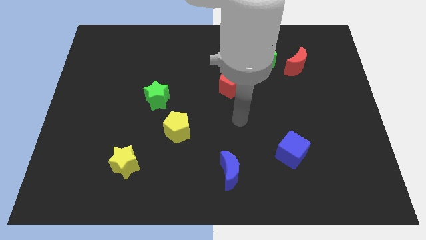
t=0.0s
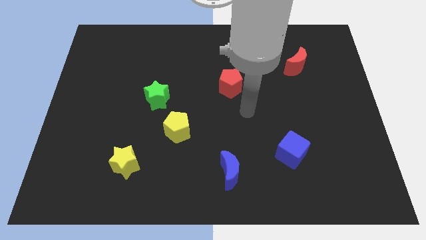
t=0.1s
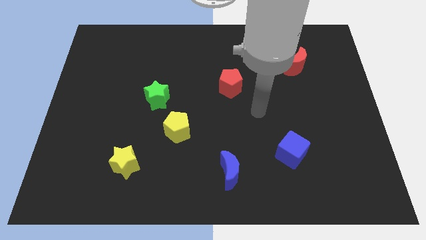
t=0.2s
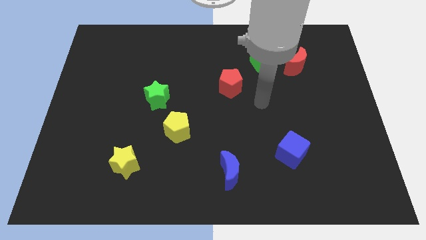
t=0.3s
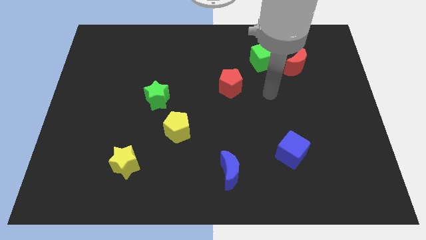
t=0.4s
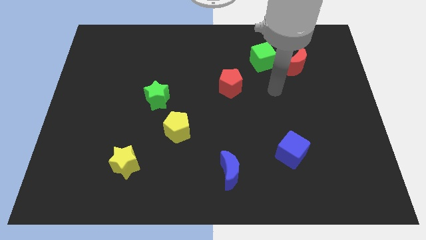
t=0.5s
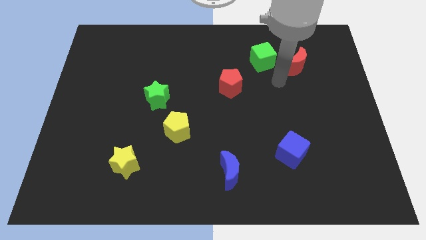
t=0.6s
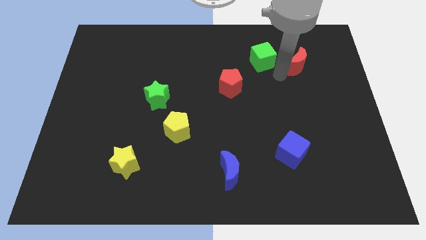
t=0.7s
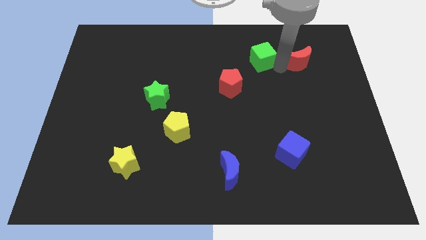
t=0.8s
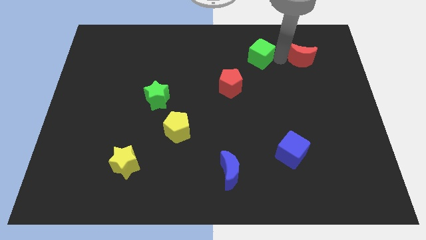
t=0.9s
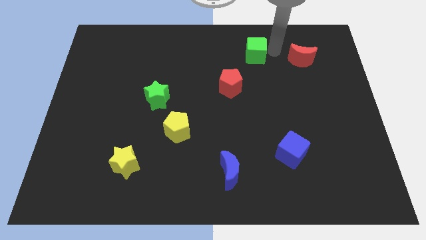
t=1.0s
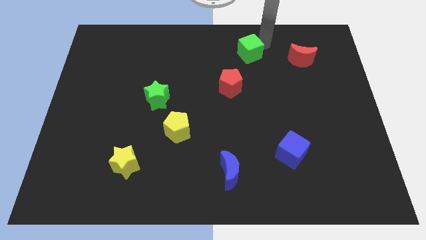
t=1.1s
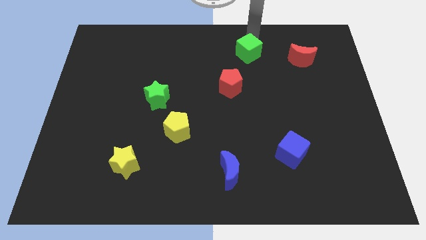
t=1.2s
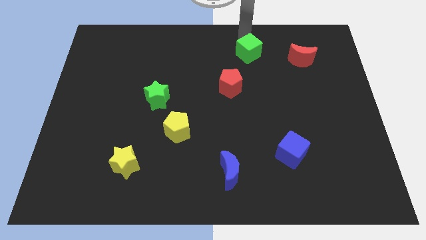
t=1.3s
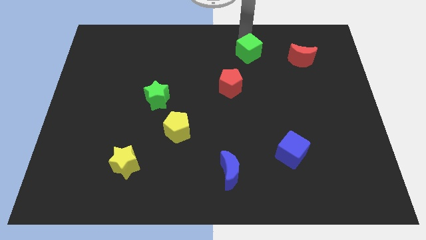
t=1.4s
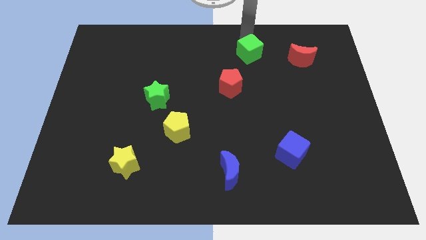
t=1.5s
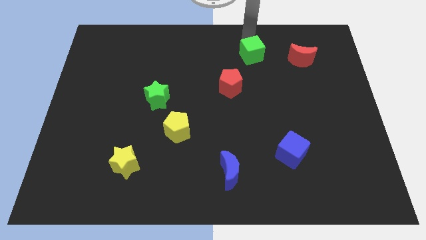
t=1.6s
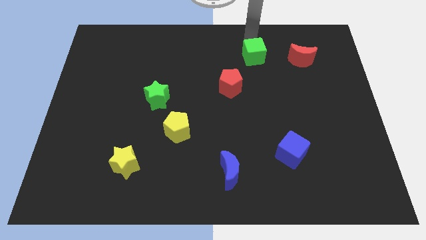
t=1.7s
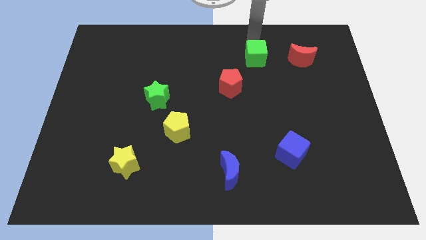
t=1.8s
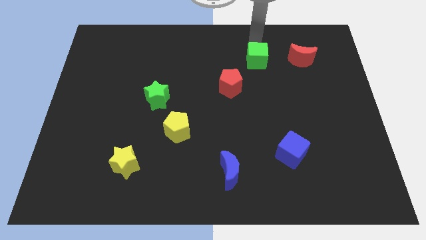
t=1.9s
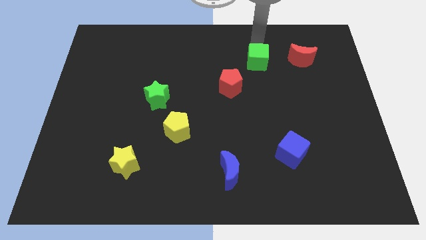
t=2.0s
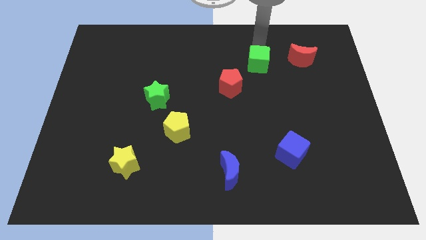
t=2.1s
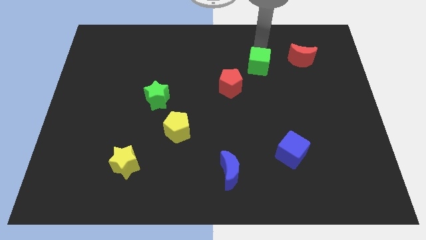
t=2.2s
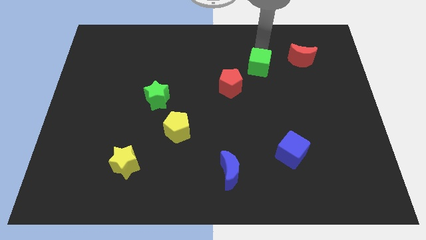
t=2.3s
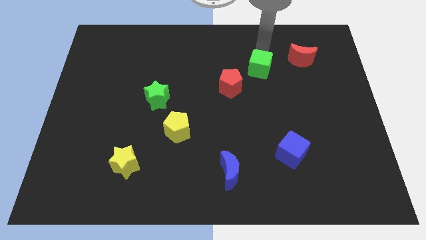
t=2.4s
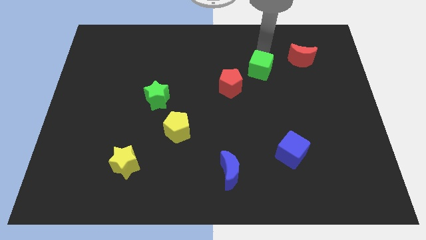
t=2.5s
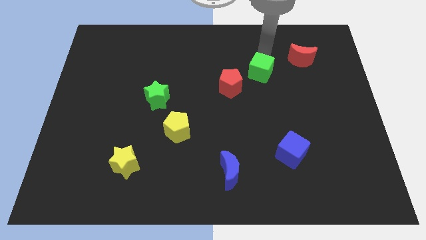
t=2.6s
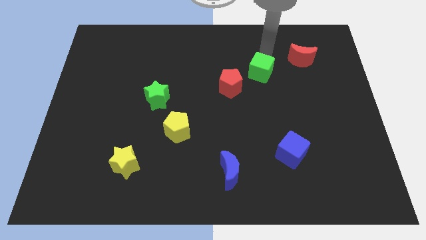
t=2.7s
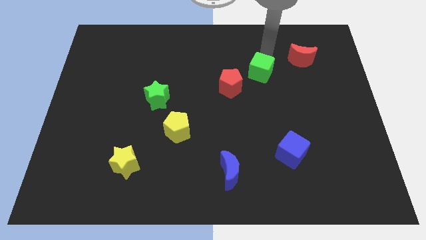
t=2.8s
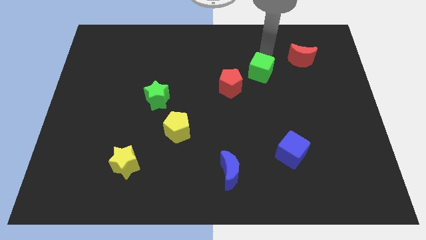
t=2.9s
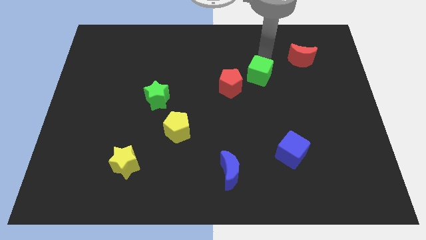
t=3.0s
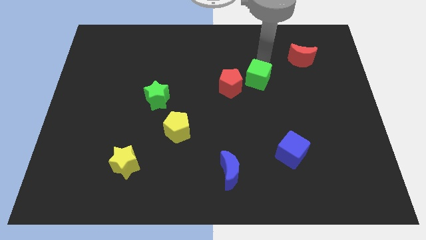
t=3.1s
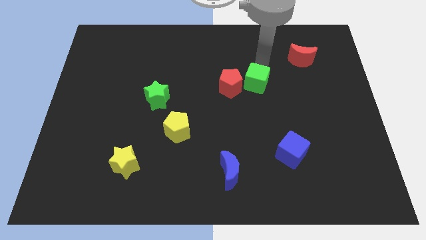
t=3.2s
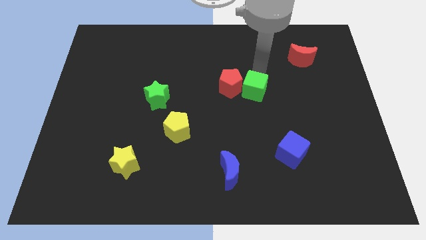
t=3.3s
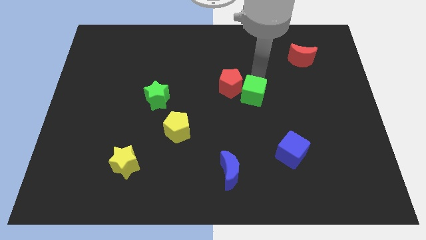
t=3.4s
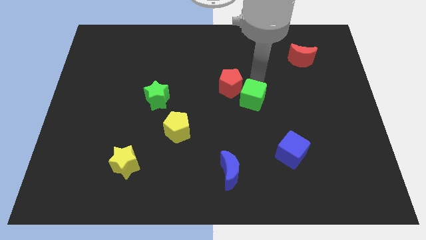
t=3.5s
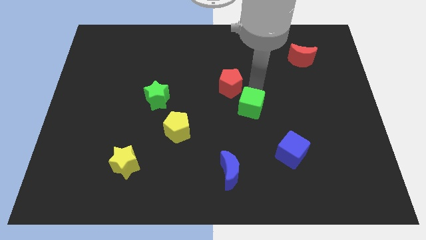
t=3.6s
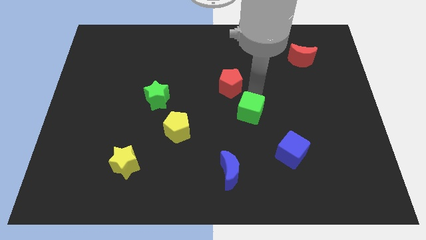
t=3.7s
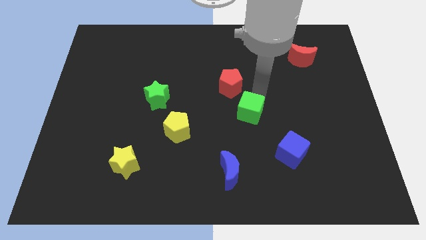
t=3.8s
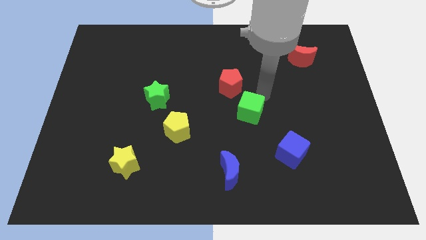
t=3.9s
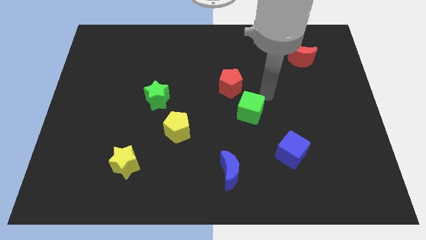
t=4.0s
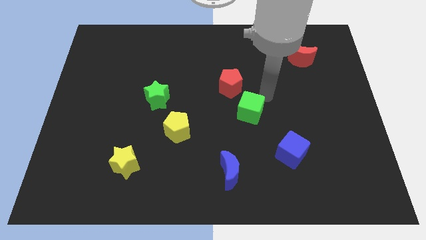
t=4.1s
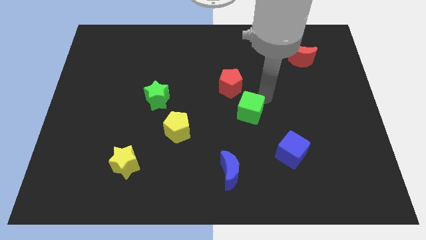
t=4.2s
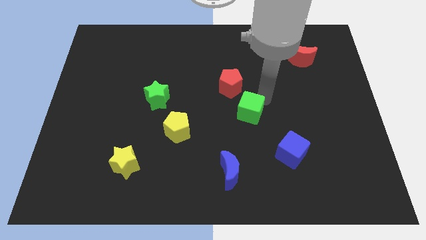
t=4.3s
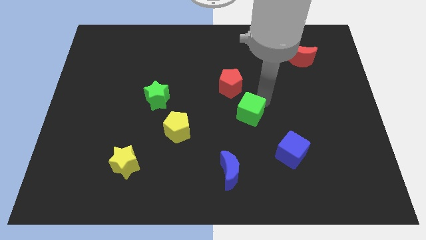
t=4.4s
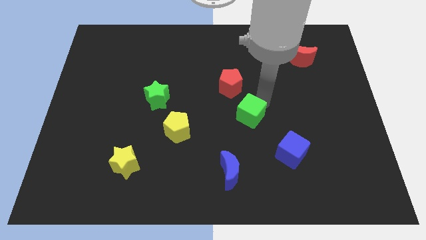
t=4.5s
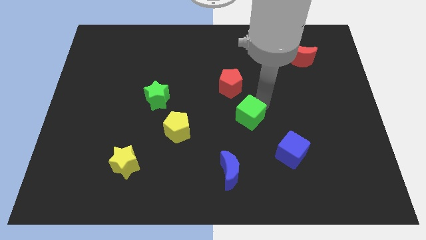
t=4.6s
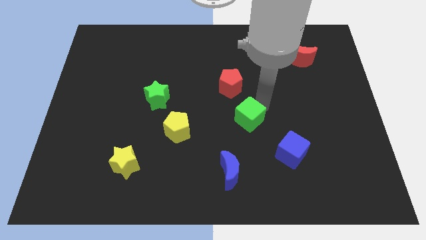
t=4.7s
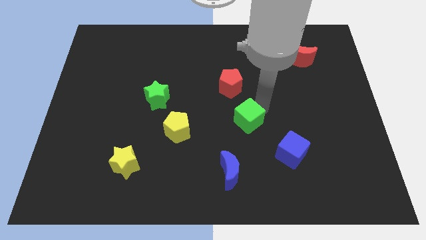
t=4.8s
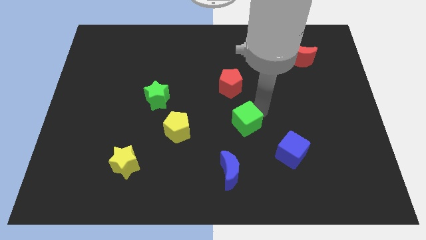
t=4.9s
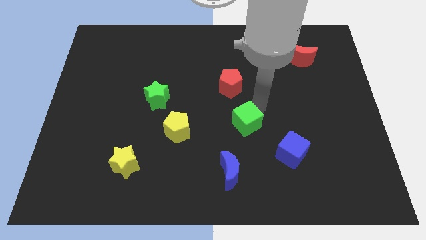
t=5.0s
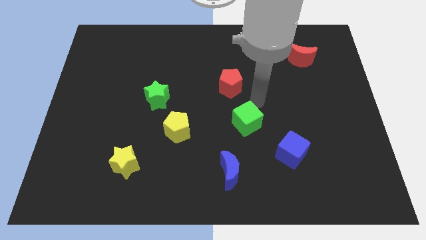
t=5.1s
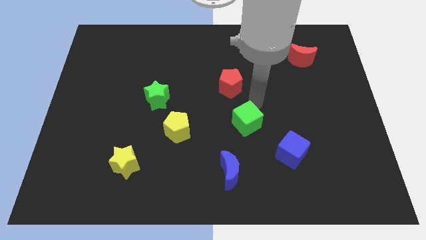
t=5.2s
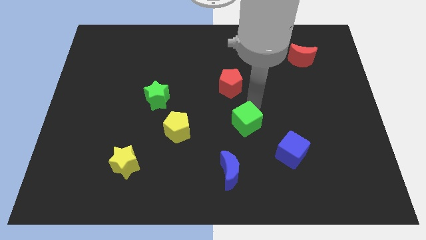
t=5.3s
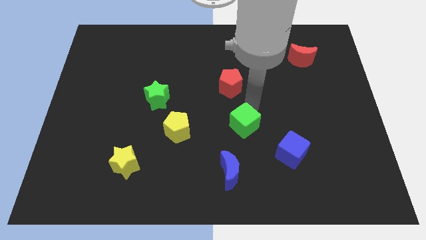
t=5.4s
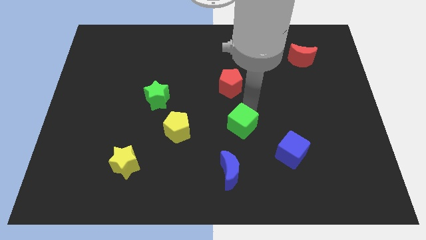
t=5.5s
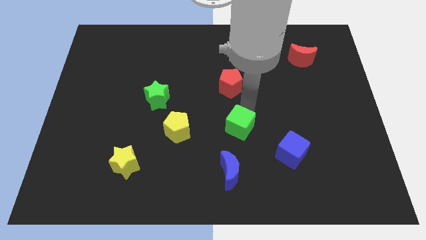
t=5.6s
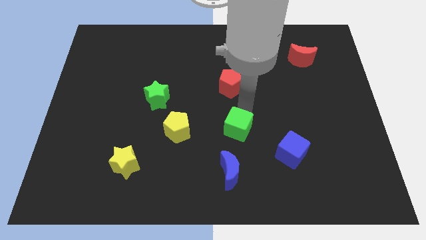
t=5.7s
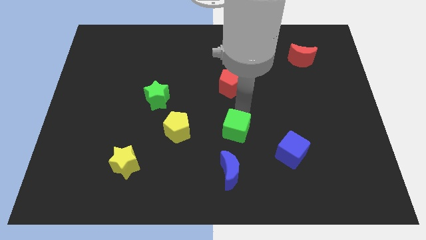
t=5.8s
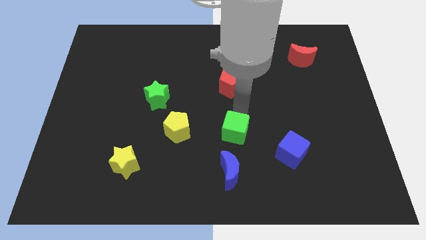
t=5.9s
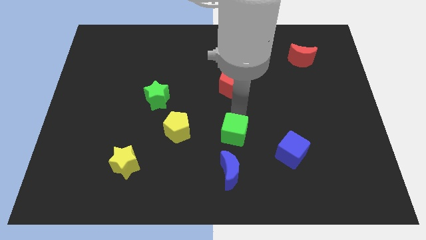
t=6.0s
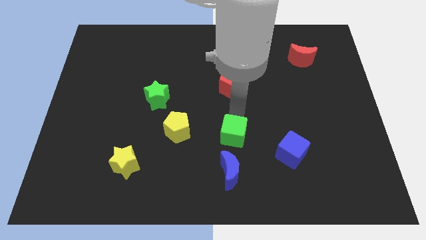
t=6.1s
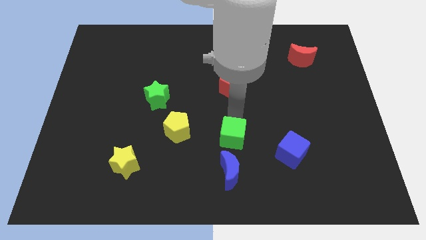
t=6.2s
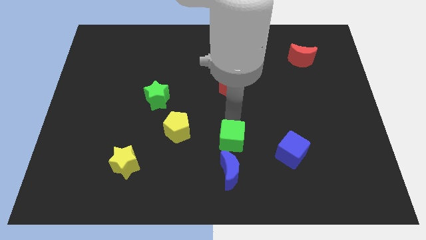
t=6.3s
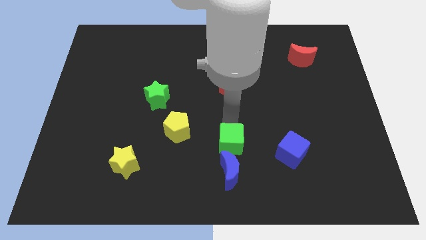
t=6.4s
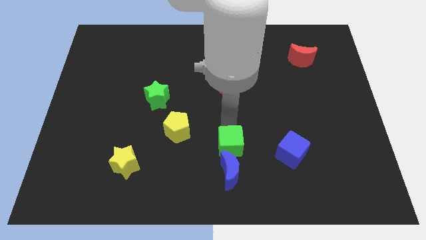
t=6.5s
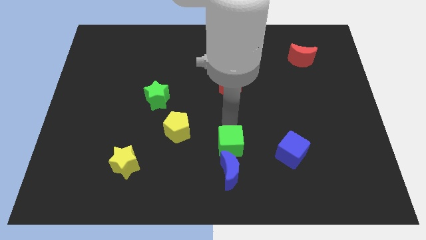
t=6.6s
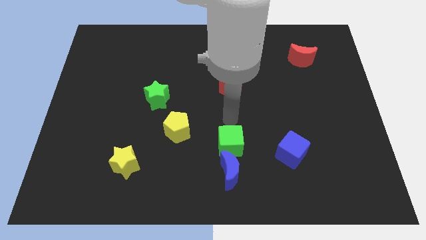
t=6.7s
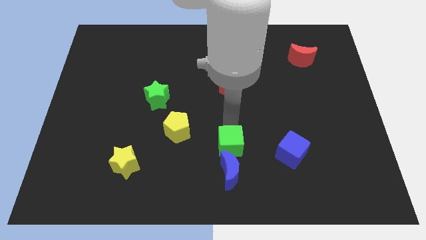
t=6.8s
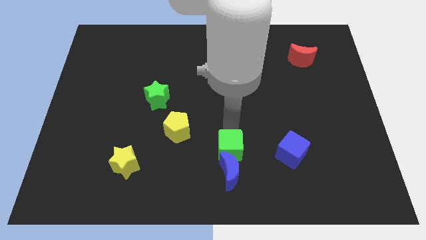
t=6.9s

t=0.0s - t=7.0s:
move the green cube next to the blue moon
